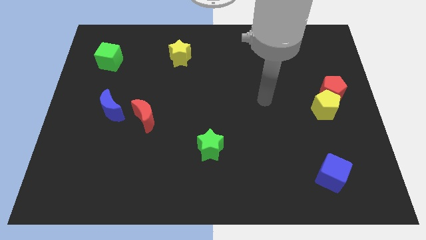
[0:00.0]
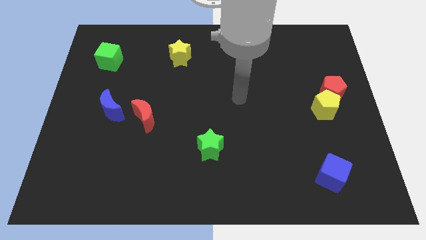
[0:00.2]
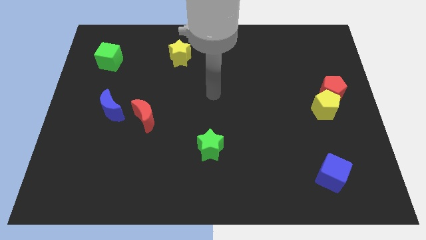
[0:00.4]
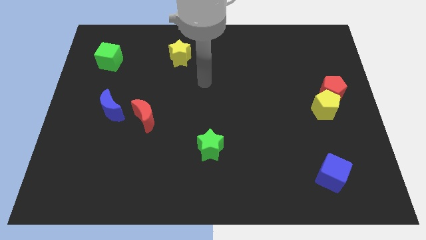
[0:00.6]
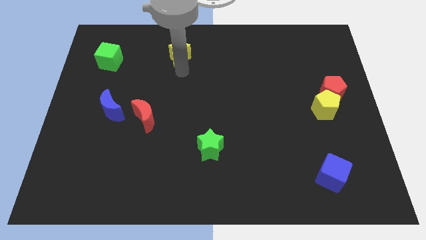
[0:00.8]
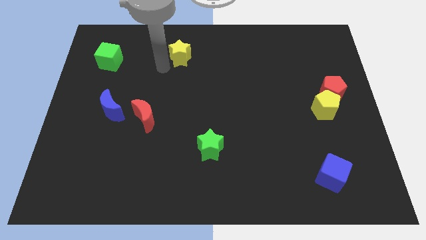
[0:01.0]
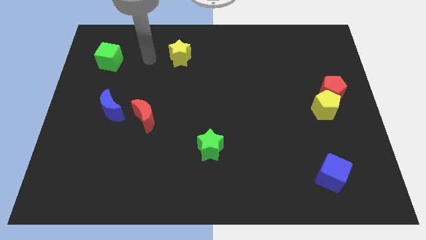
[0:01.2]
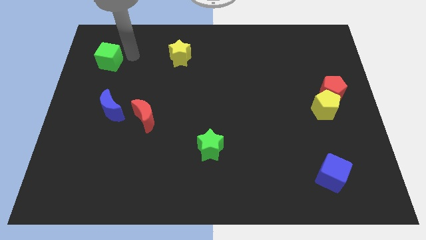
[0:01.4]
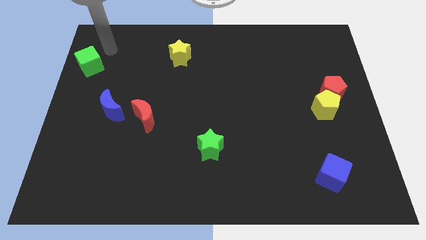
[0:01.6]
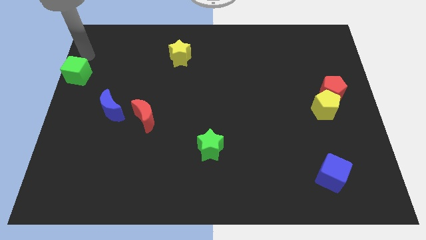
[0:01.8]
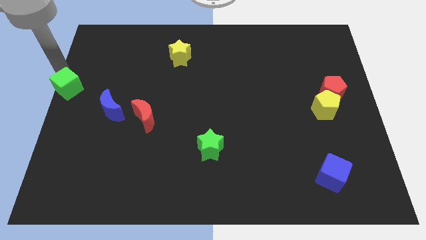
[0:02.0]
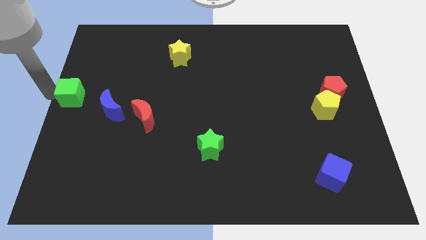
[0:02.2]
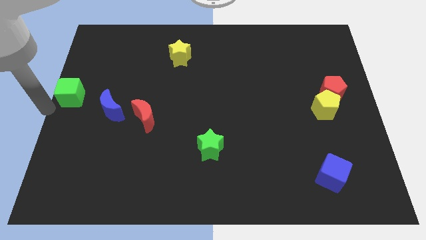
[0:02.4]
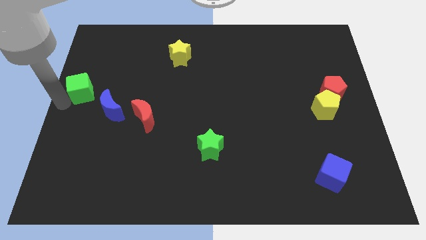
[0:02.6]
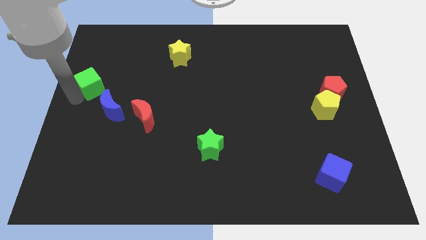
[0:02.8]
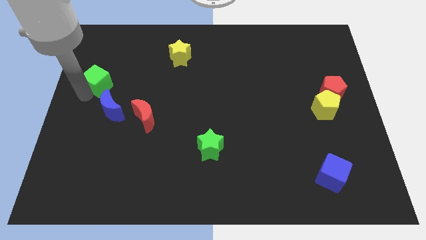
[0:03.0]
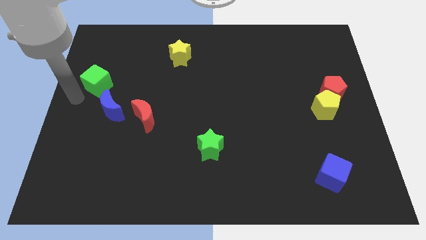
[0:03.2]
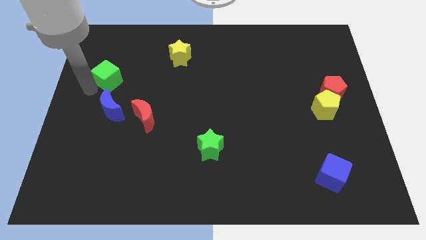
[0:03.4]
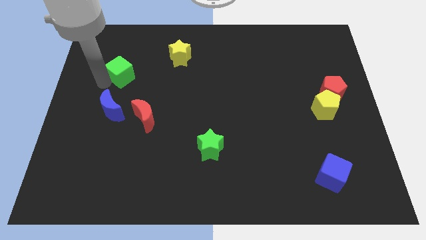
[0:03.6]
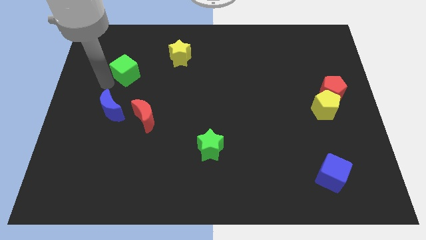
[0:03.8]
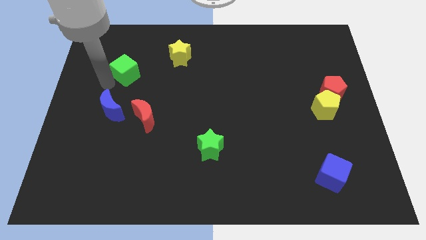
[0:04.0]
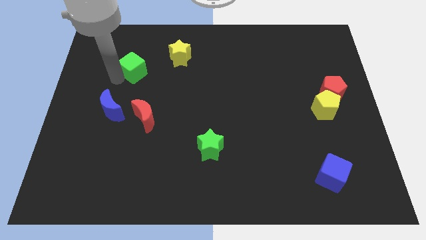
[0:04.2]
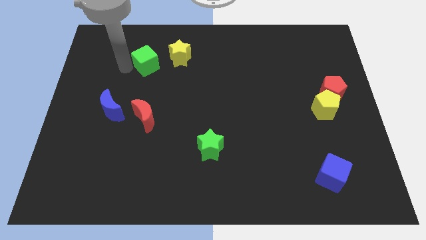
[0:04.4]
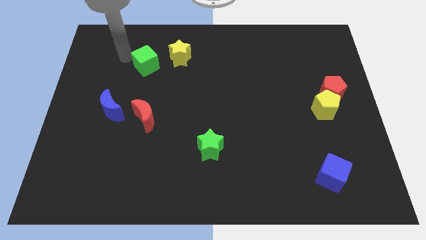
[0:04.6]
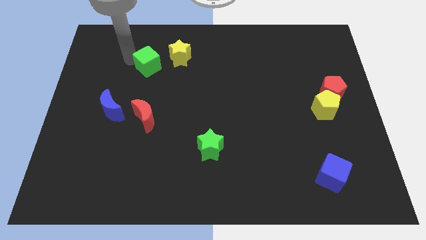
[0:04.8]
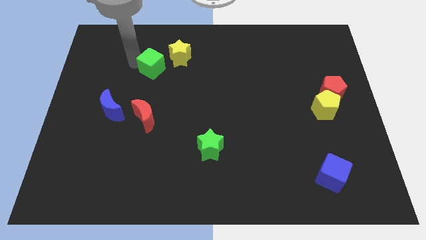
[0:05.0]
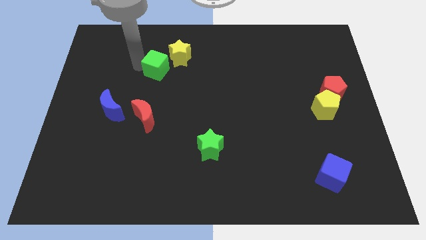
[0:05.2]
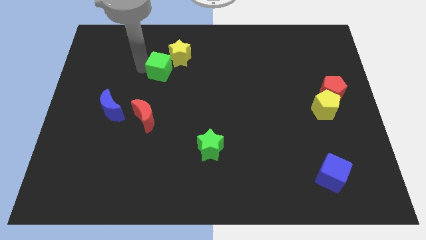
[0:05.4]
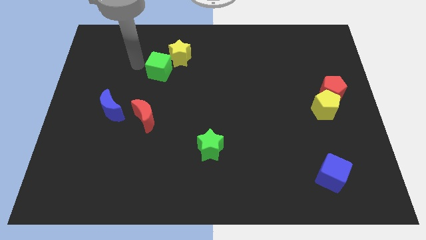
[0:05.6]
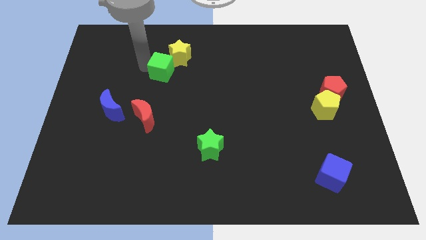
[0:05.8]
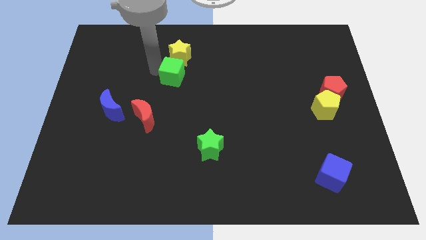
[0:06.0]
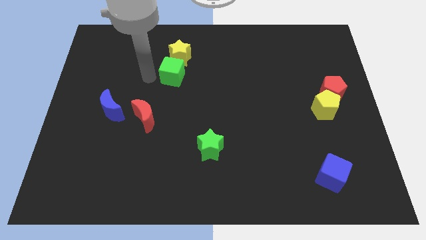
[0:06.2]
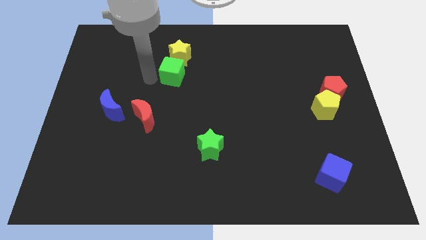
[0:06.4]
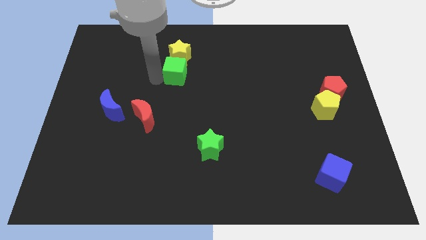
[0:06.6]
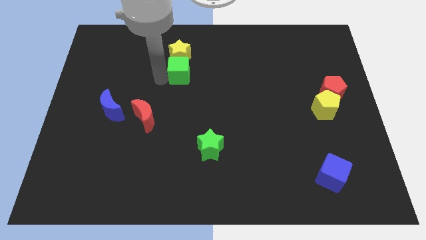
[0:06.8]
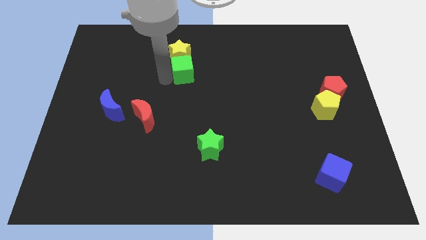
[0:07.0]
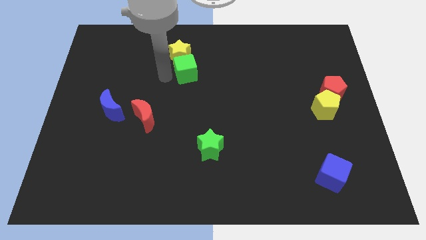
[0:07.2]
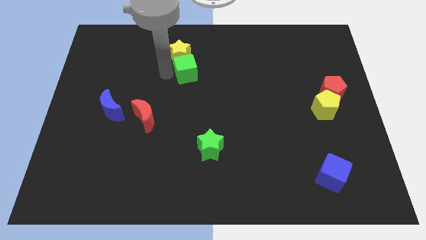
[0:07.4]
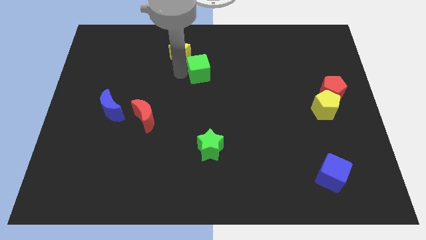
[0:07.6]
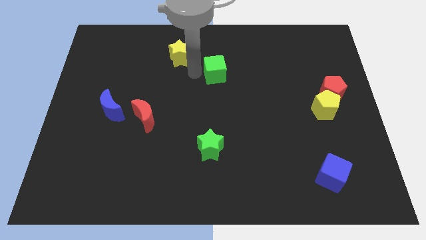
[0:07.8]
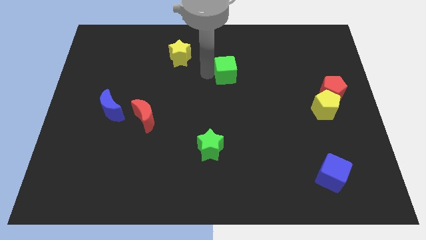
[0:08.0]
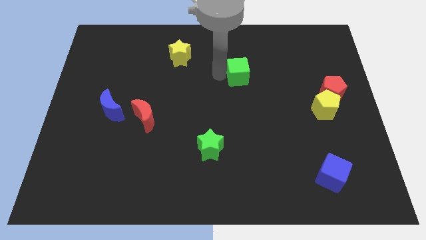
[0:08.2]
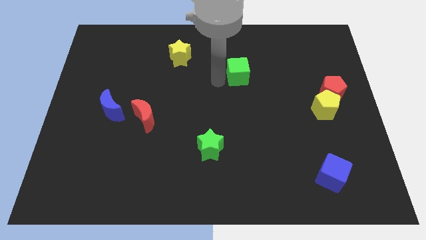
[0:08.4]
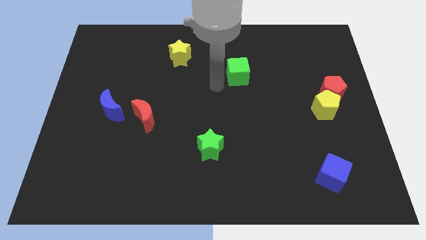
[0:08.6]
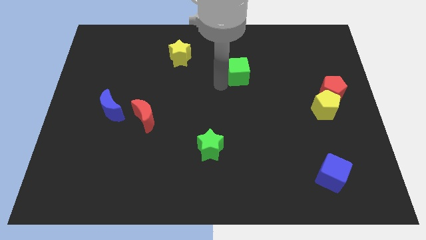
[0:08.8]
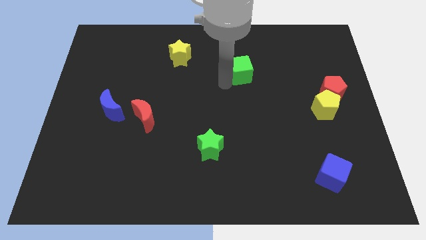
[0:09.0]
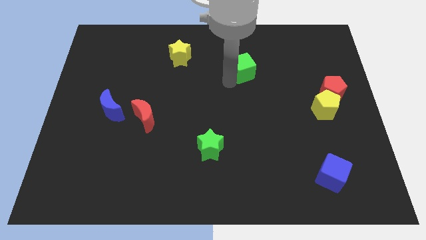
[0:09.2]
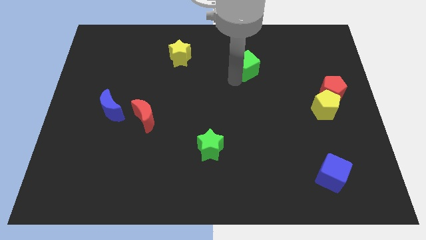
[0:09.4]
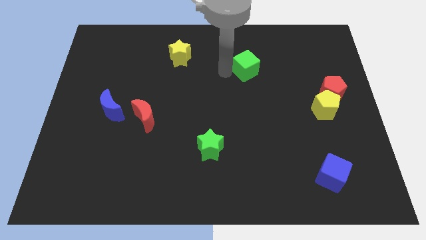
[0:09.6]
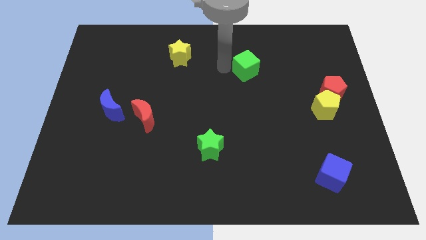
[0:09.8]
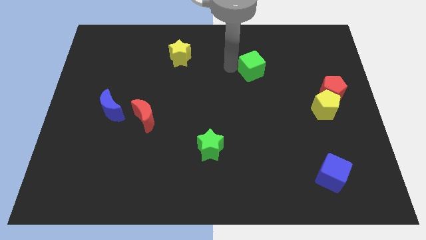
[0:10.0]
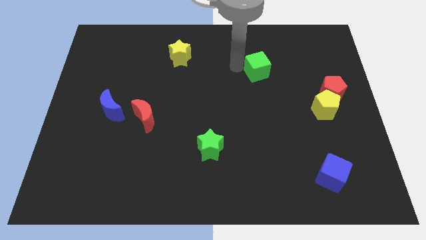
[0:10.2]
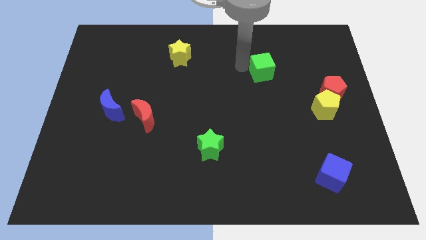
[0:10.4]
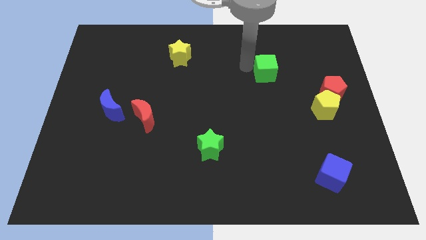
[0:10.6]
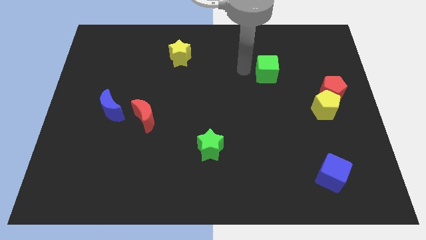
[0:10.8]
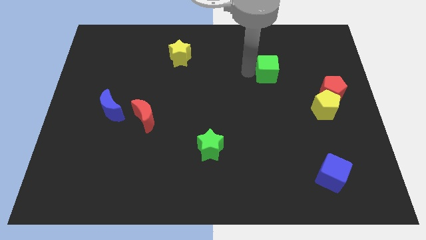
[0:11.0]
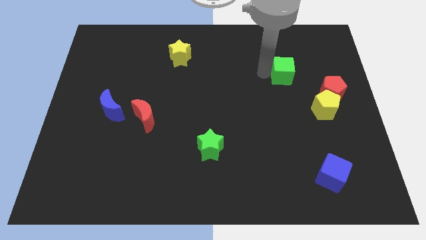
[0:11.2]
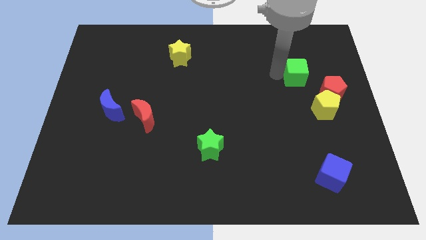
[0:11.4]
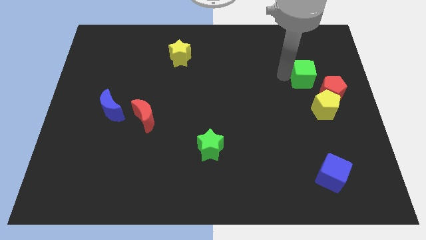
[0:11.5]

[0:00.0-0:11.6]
move the green cube to the top side of the yellow pentagon
